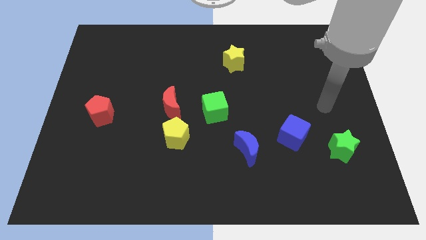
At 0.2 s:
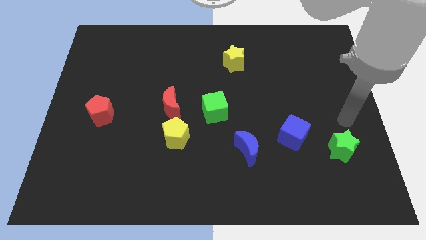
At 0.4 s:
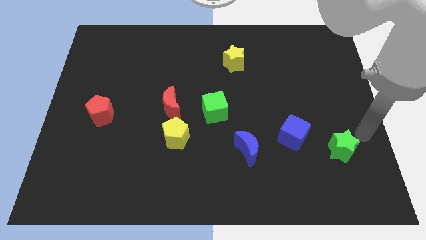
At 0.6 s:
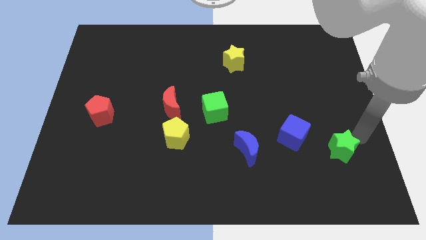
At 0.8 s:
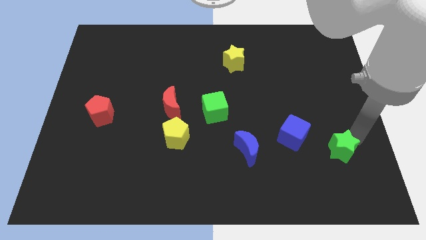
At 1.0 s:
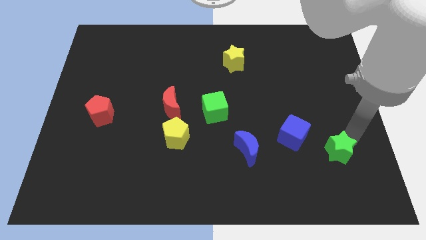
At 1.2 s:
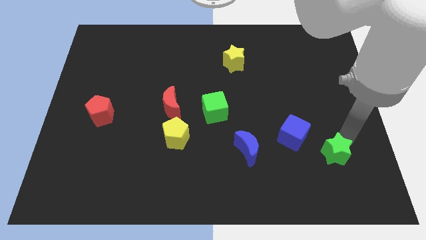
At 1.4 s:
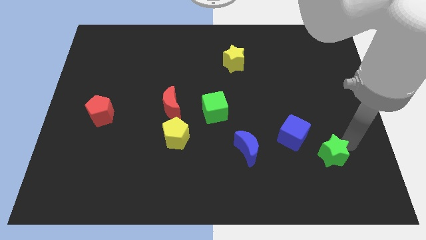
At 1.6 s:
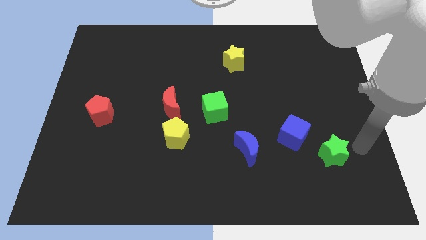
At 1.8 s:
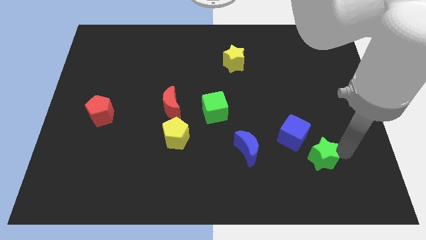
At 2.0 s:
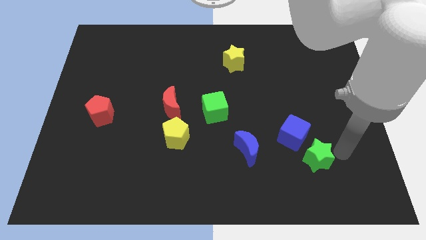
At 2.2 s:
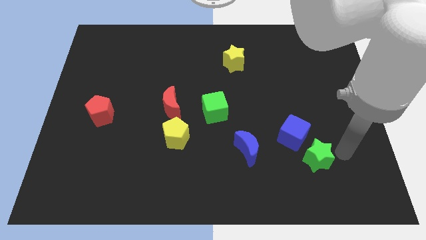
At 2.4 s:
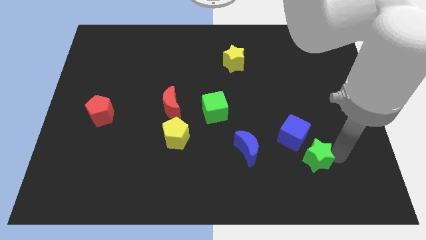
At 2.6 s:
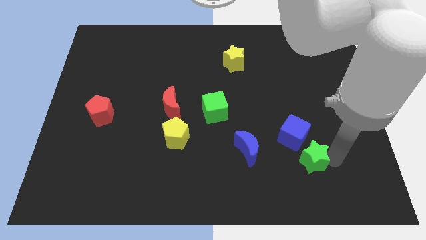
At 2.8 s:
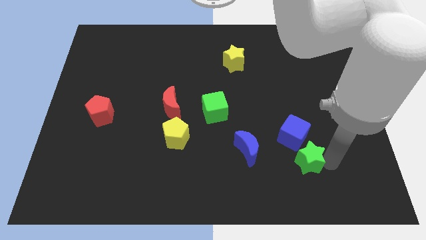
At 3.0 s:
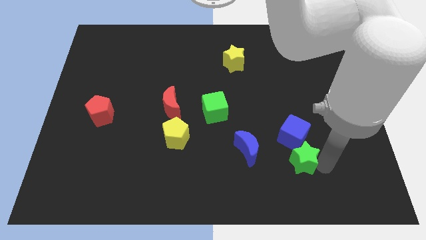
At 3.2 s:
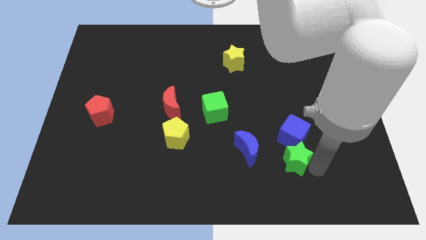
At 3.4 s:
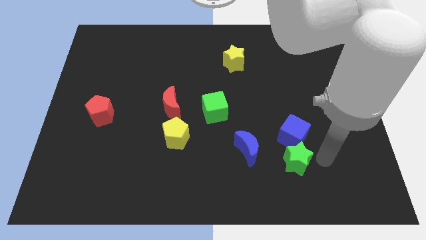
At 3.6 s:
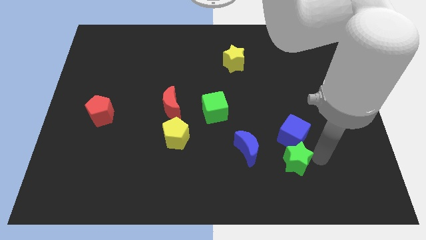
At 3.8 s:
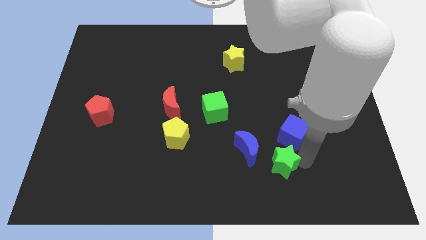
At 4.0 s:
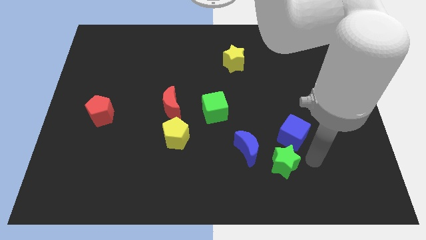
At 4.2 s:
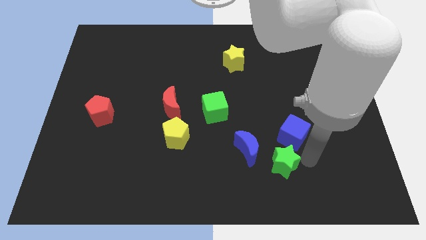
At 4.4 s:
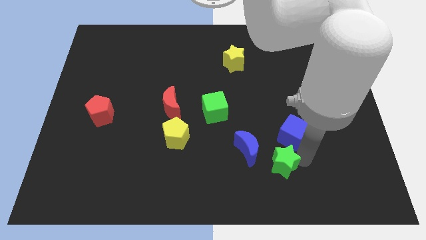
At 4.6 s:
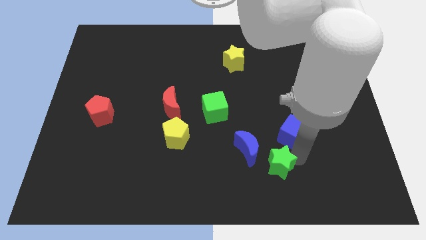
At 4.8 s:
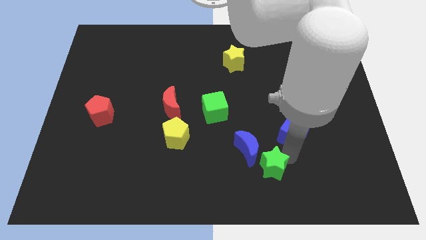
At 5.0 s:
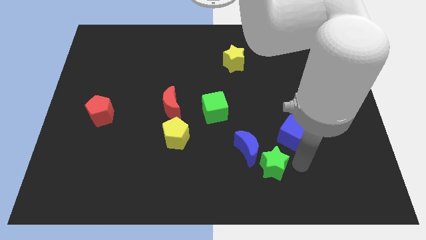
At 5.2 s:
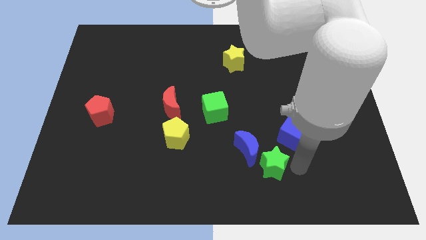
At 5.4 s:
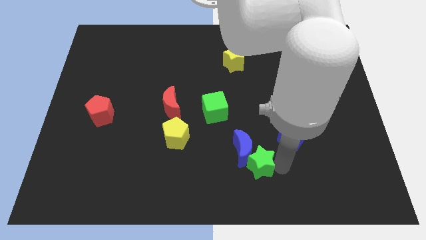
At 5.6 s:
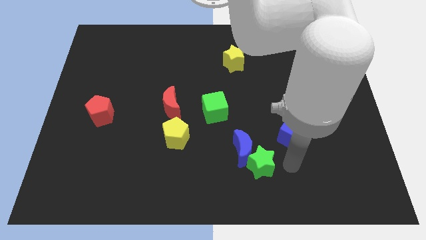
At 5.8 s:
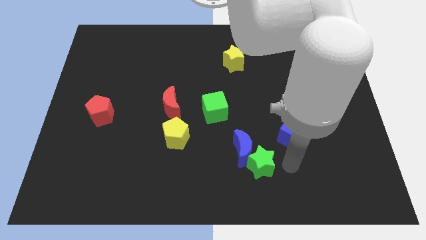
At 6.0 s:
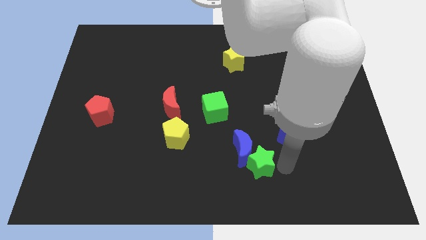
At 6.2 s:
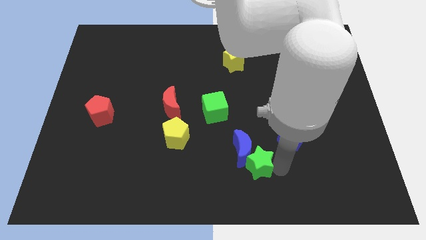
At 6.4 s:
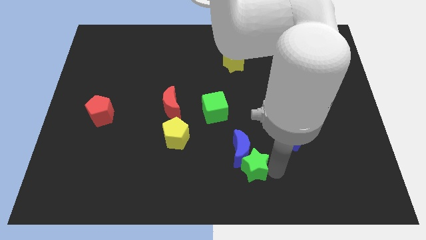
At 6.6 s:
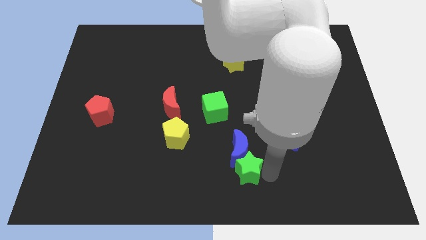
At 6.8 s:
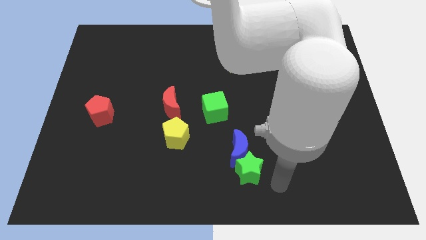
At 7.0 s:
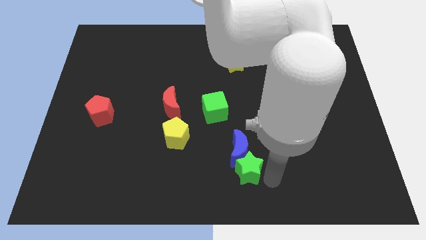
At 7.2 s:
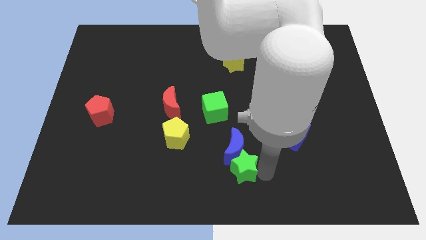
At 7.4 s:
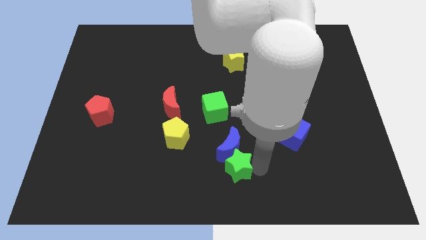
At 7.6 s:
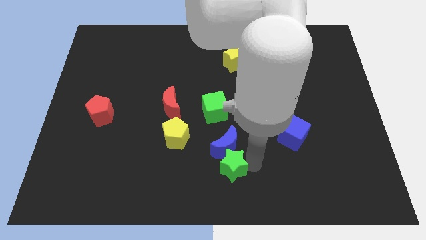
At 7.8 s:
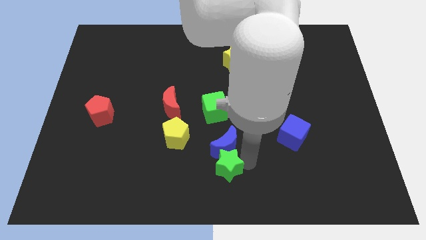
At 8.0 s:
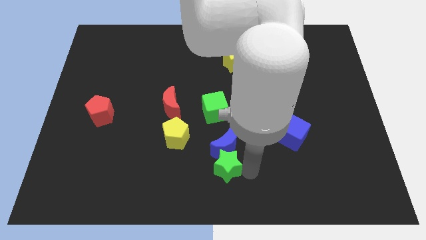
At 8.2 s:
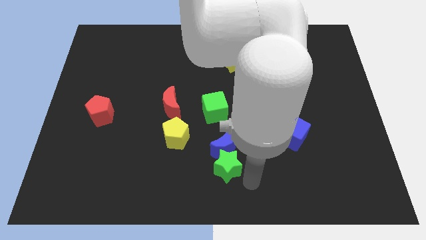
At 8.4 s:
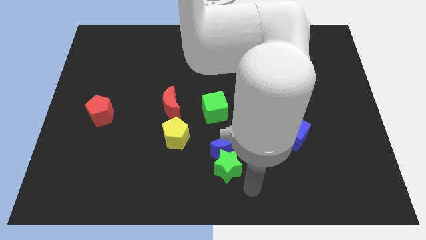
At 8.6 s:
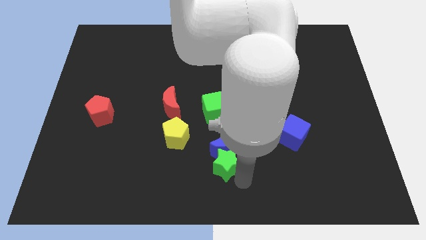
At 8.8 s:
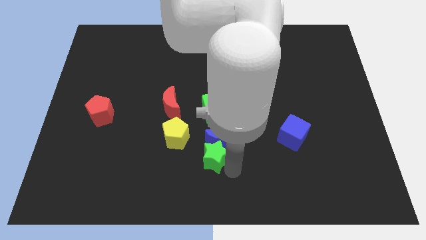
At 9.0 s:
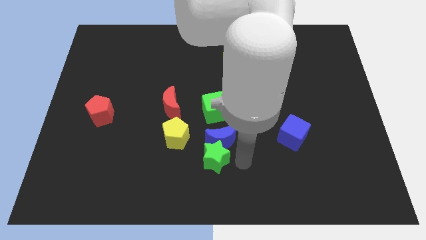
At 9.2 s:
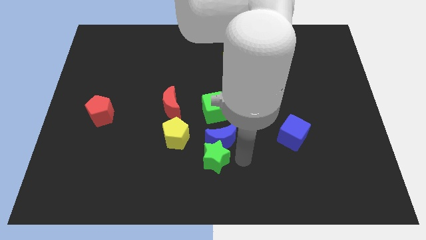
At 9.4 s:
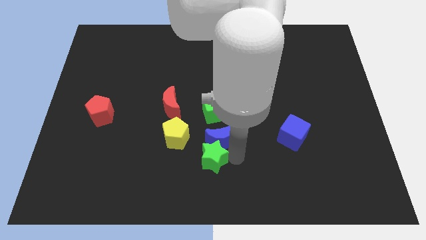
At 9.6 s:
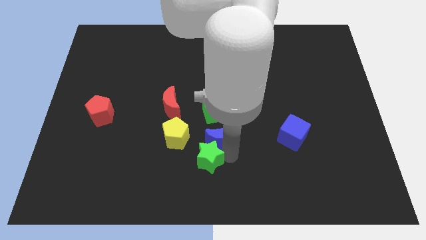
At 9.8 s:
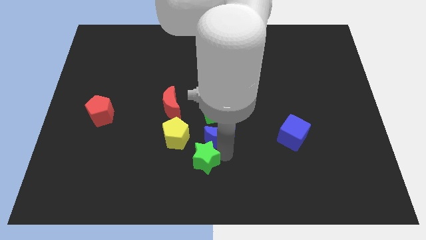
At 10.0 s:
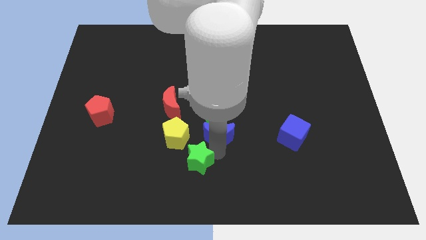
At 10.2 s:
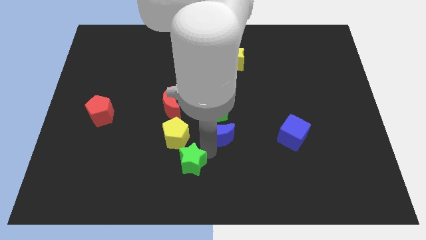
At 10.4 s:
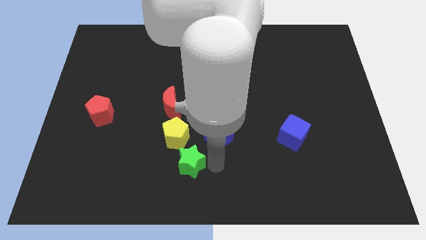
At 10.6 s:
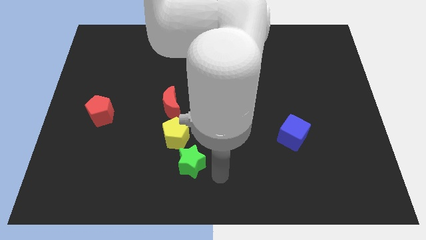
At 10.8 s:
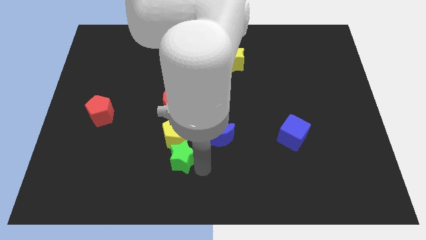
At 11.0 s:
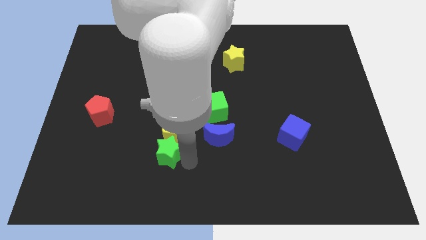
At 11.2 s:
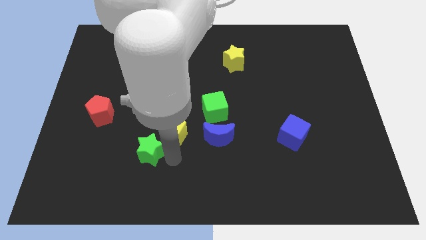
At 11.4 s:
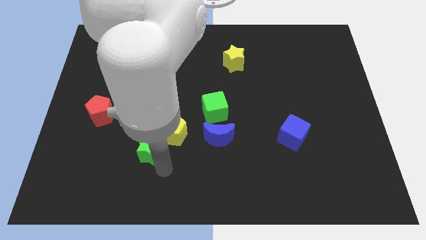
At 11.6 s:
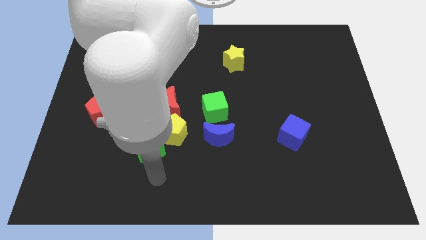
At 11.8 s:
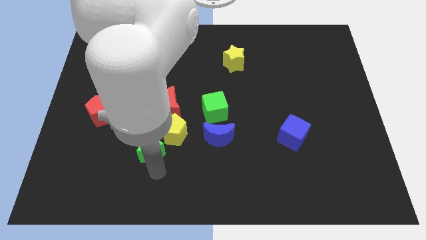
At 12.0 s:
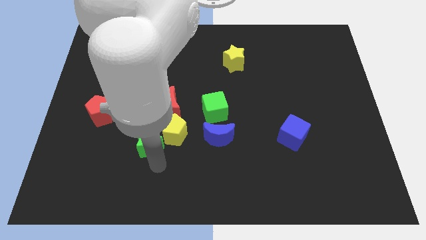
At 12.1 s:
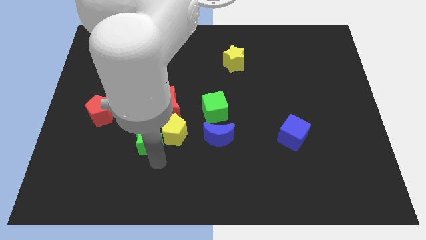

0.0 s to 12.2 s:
push the green star diagonally down and to the left of the red moon

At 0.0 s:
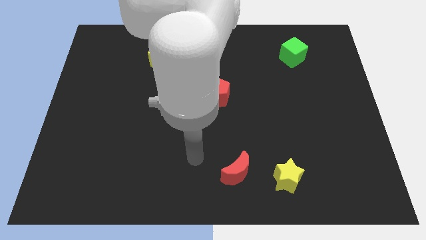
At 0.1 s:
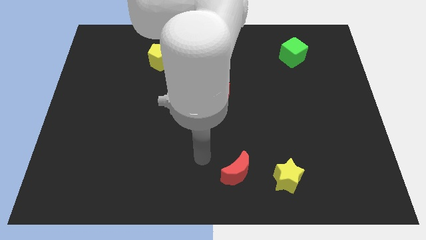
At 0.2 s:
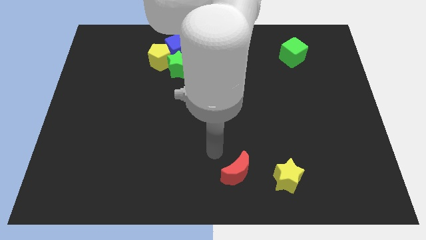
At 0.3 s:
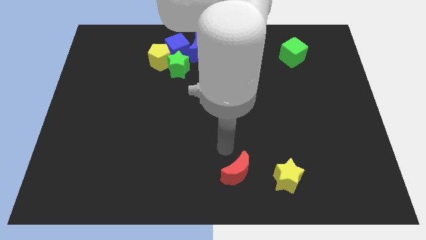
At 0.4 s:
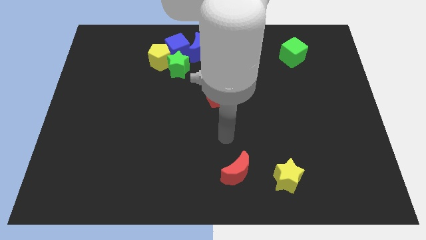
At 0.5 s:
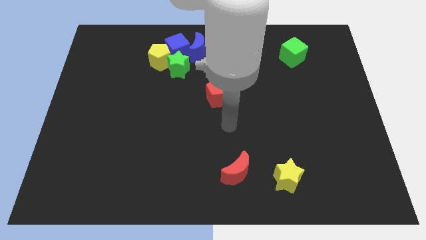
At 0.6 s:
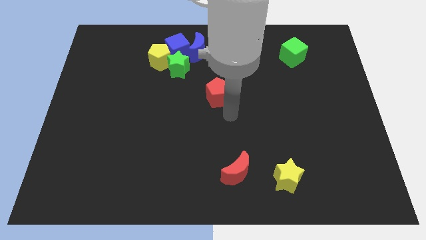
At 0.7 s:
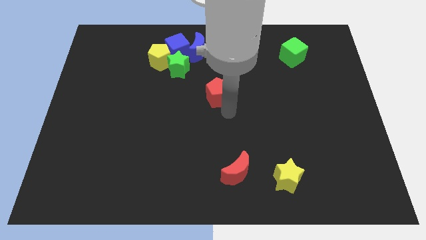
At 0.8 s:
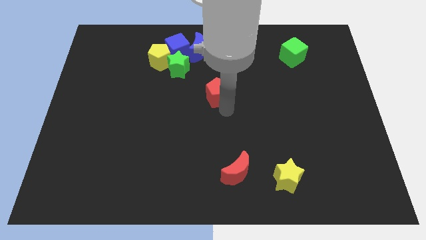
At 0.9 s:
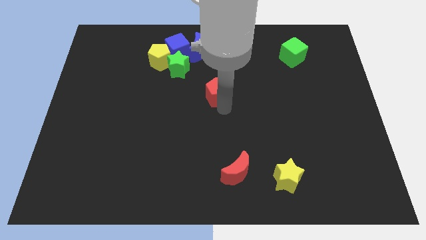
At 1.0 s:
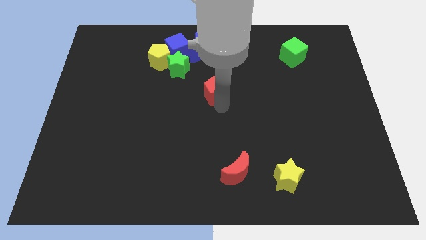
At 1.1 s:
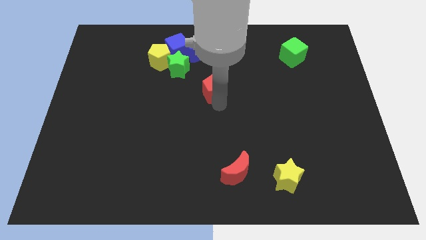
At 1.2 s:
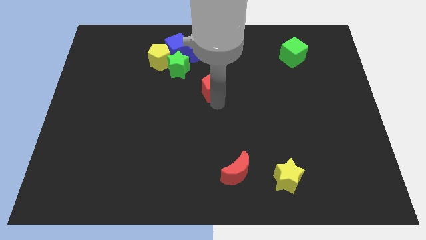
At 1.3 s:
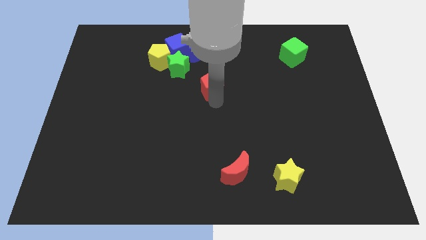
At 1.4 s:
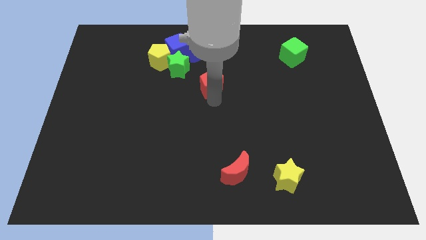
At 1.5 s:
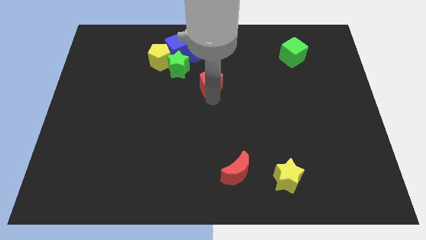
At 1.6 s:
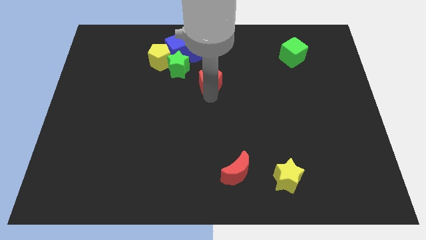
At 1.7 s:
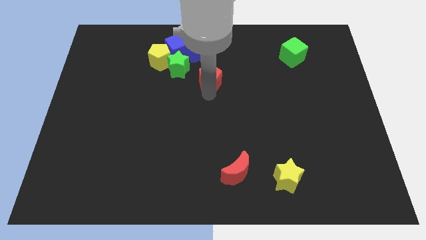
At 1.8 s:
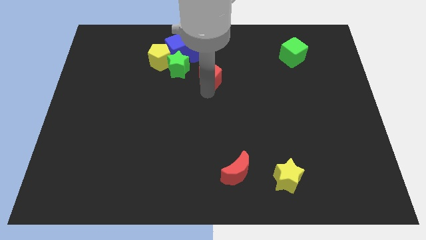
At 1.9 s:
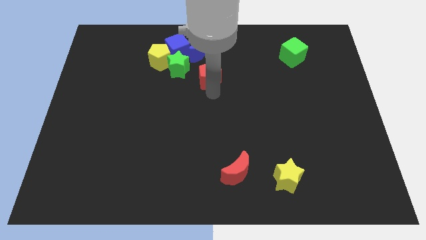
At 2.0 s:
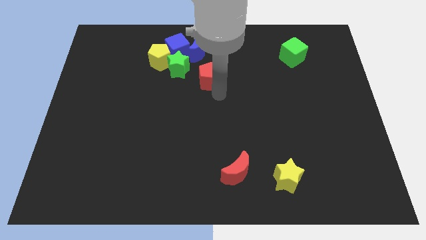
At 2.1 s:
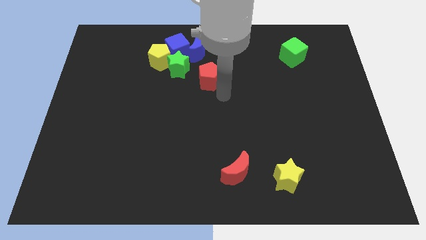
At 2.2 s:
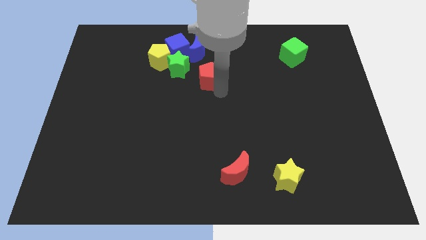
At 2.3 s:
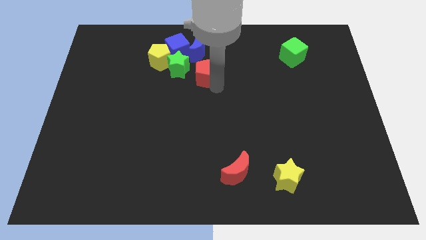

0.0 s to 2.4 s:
move the red pentagon to the bottom right side of the blue cube
